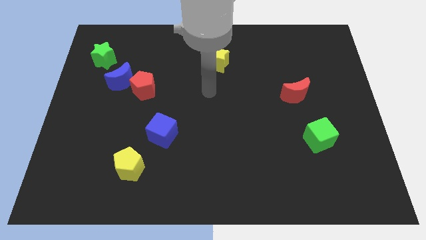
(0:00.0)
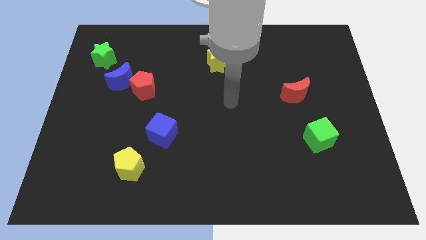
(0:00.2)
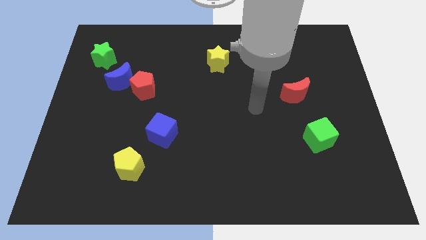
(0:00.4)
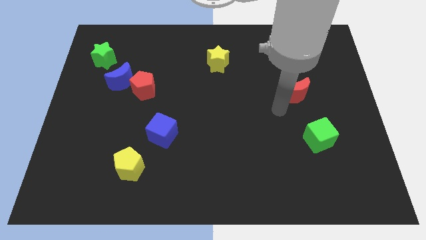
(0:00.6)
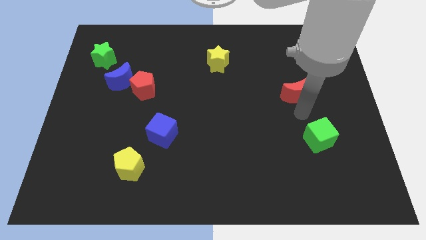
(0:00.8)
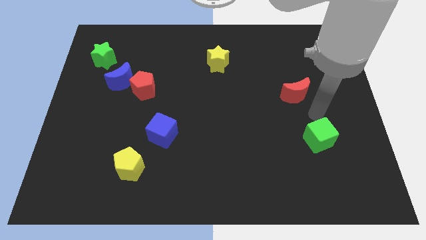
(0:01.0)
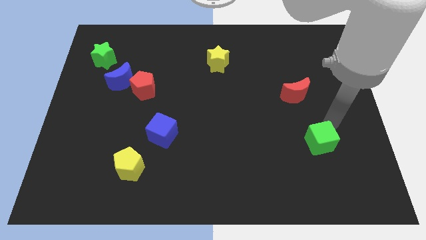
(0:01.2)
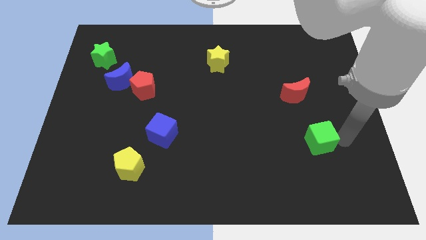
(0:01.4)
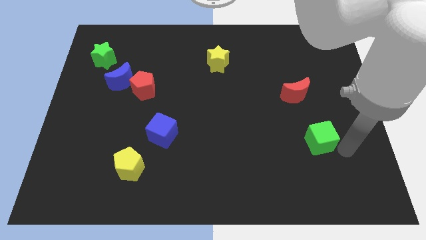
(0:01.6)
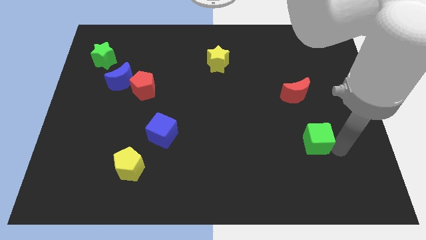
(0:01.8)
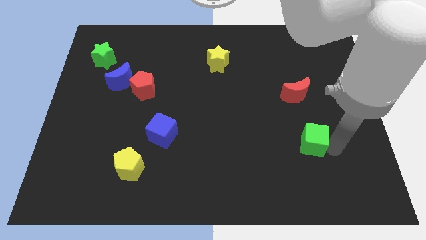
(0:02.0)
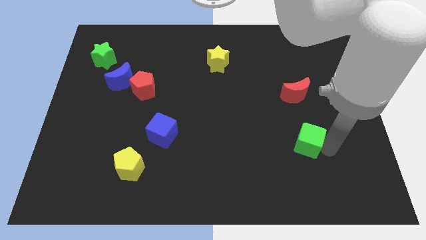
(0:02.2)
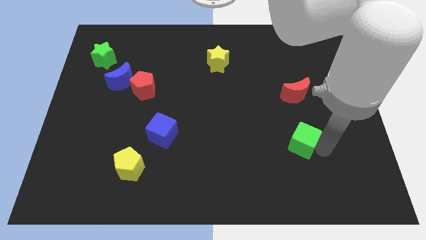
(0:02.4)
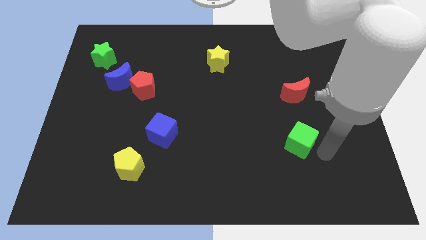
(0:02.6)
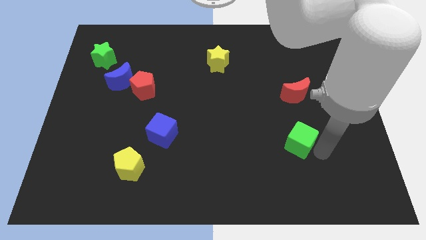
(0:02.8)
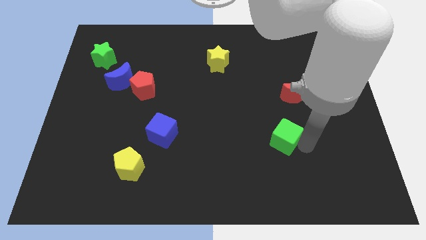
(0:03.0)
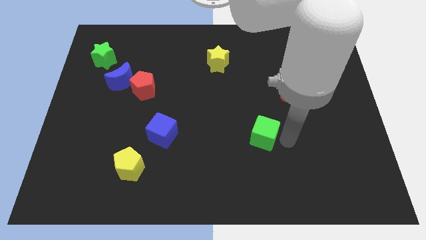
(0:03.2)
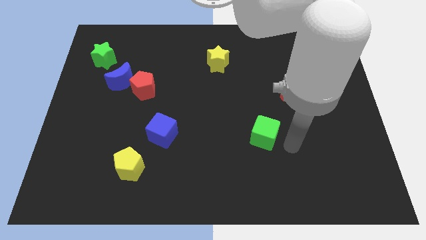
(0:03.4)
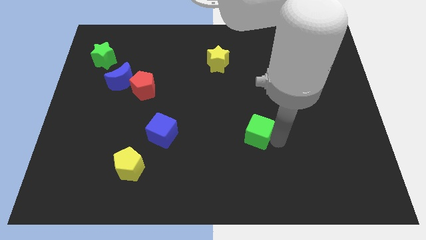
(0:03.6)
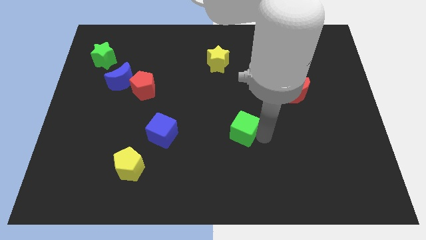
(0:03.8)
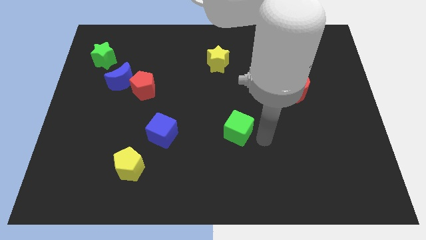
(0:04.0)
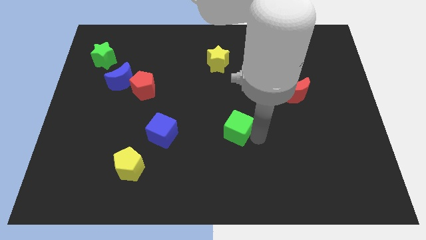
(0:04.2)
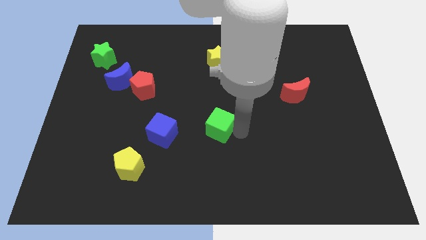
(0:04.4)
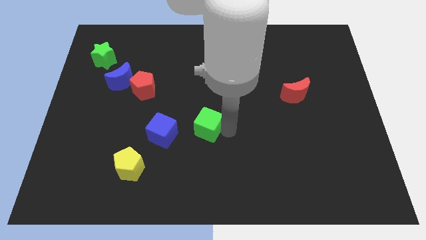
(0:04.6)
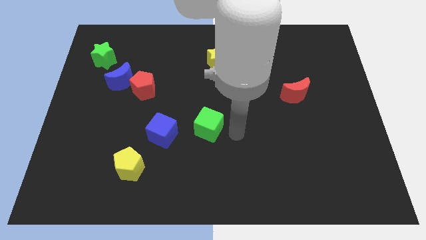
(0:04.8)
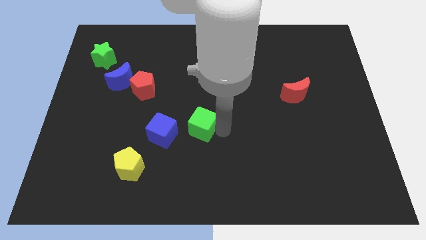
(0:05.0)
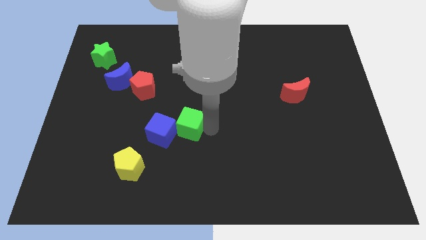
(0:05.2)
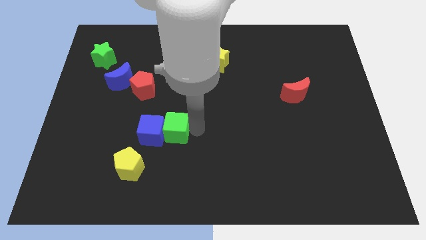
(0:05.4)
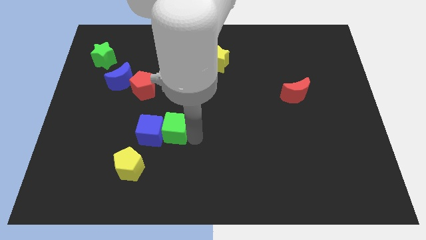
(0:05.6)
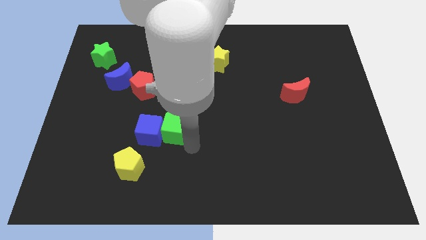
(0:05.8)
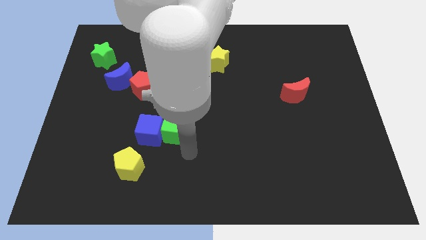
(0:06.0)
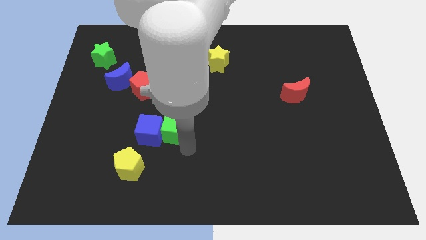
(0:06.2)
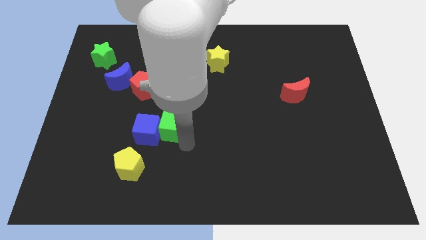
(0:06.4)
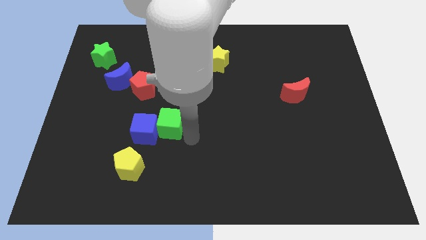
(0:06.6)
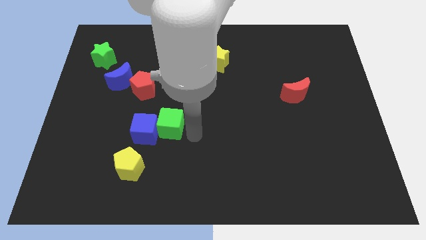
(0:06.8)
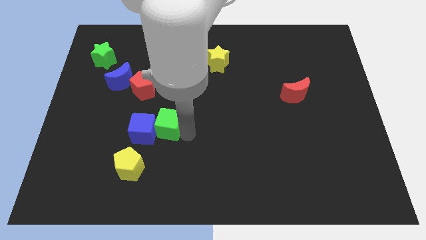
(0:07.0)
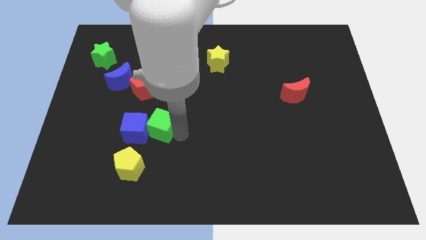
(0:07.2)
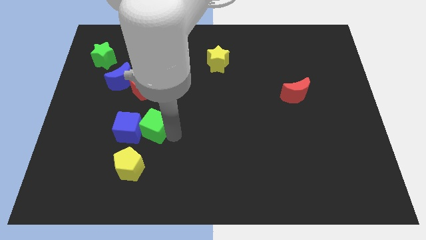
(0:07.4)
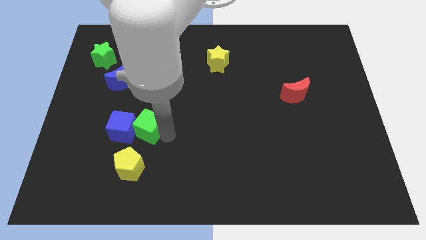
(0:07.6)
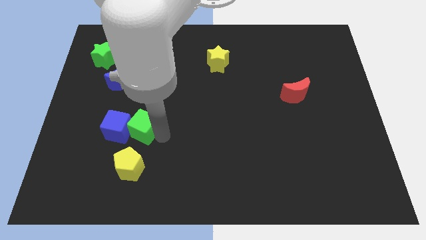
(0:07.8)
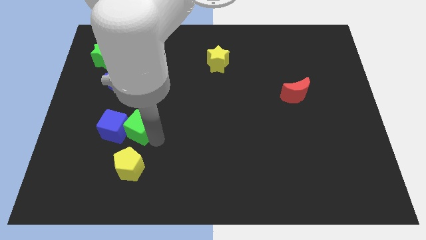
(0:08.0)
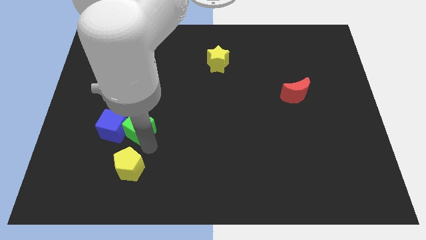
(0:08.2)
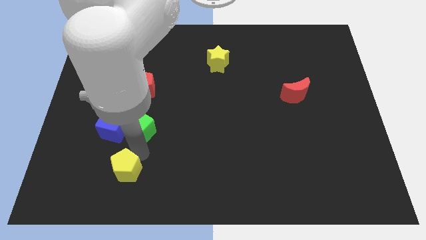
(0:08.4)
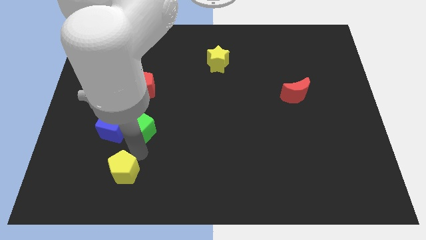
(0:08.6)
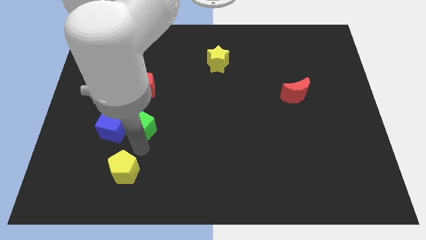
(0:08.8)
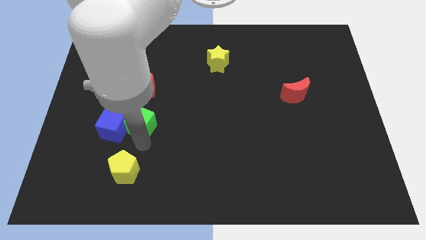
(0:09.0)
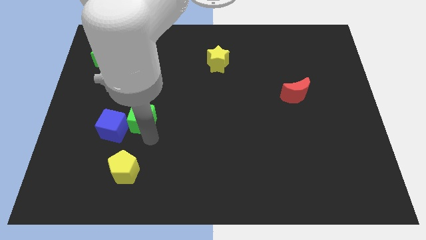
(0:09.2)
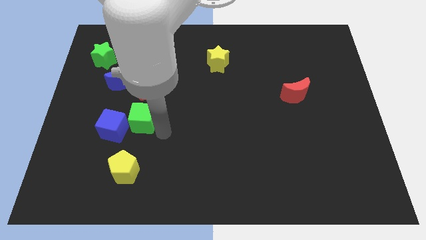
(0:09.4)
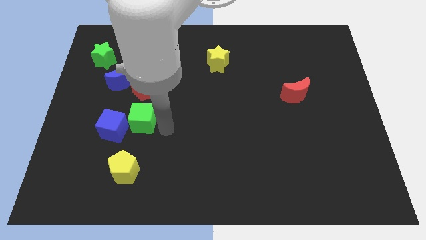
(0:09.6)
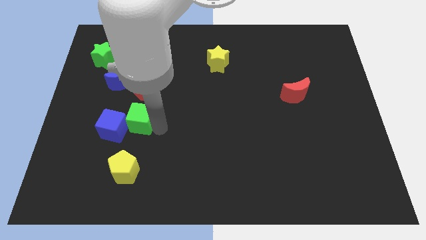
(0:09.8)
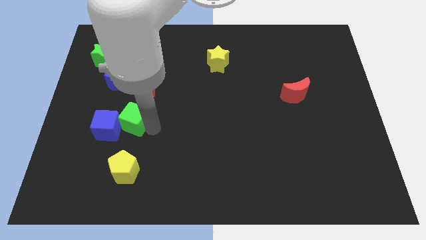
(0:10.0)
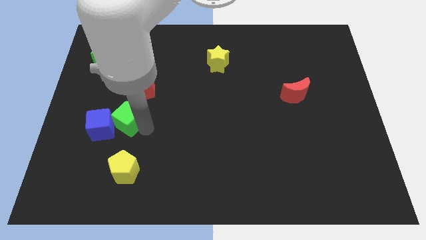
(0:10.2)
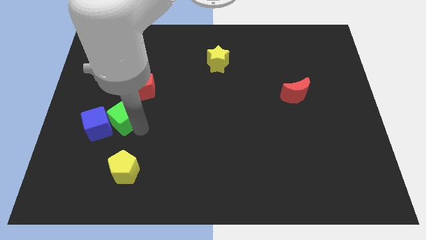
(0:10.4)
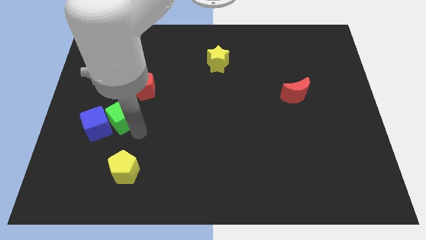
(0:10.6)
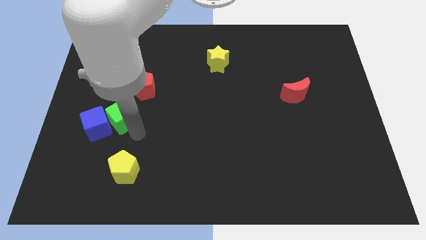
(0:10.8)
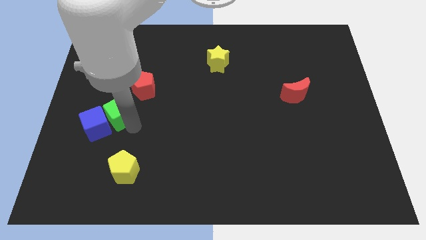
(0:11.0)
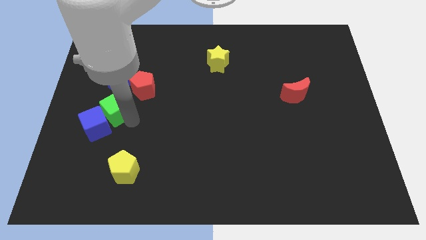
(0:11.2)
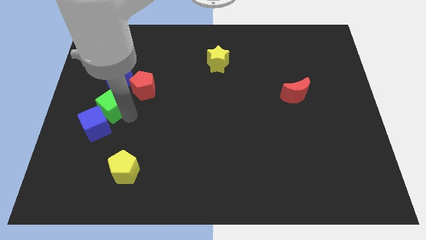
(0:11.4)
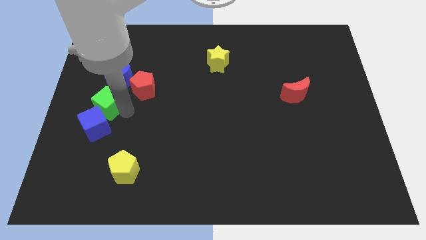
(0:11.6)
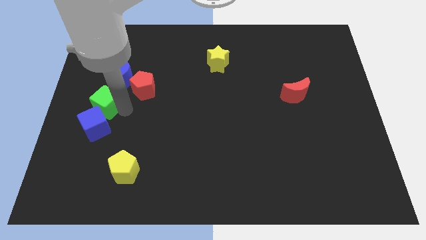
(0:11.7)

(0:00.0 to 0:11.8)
push the green cube to the left side
